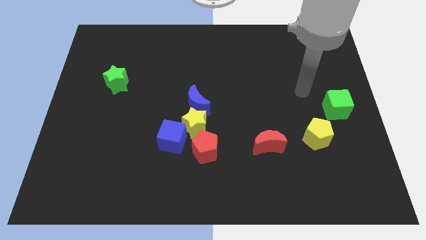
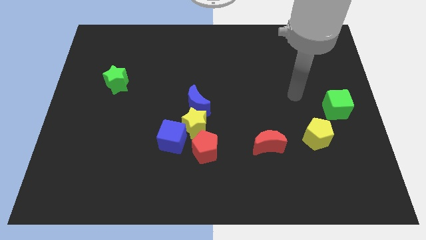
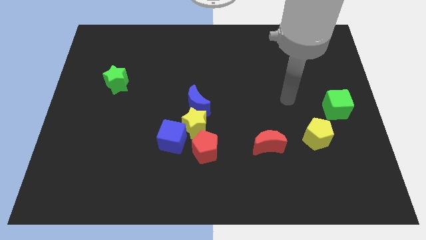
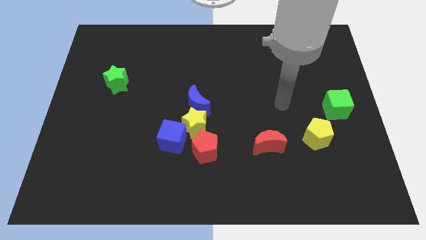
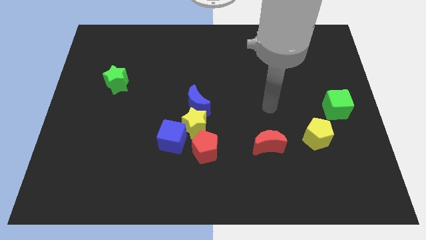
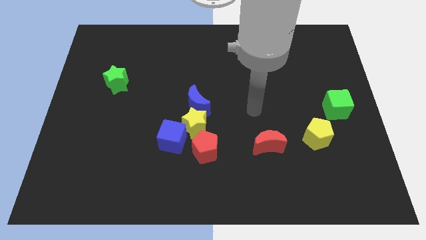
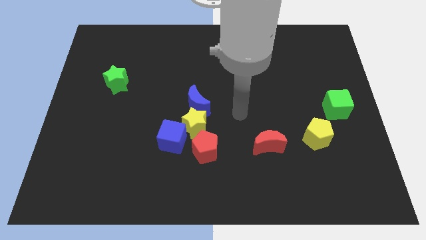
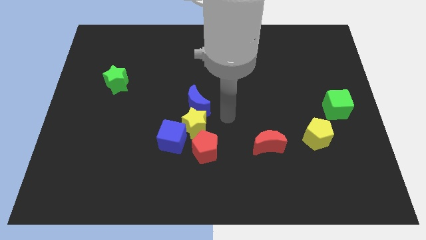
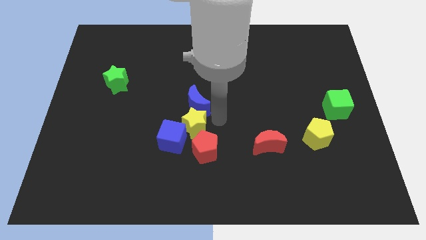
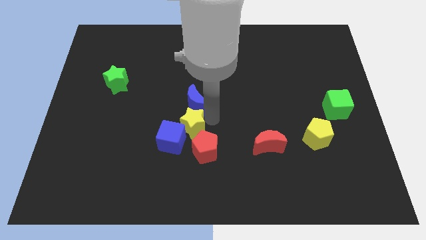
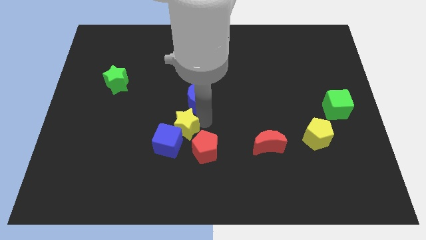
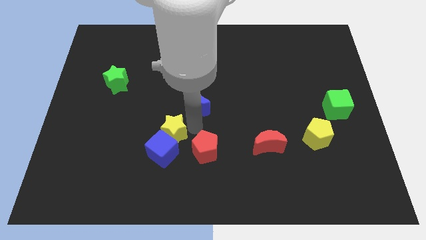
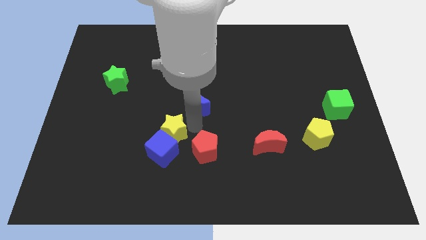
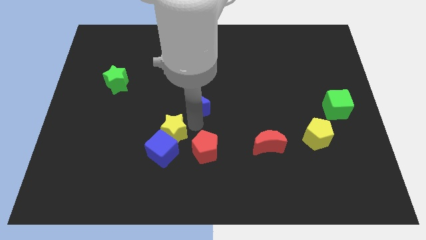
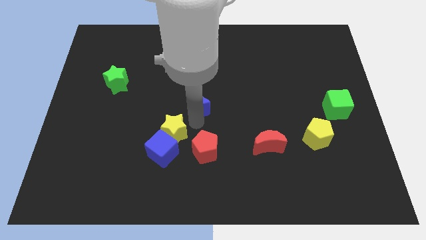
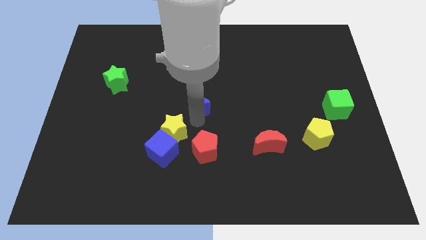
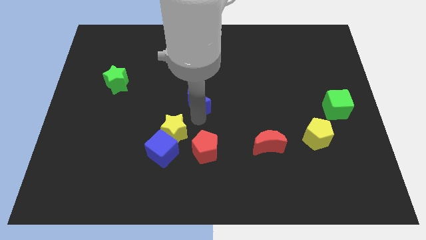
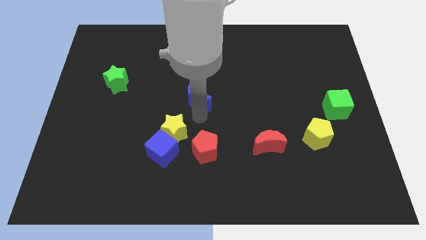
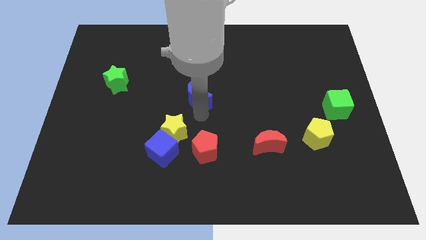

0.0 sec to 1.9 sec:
pull the blue moon apart from the yellow star

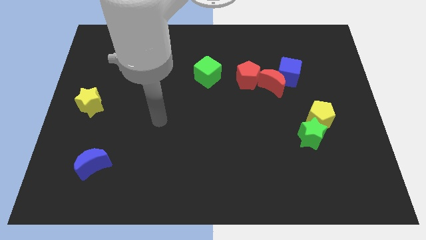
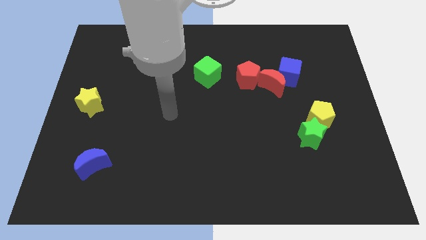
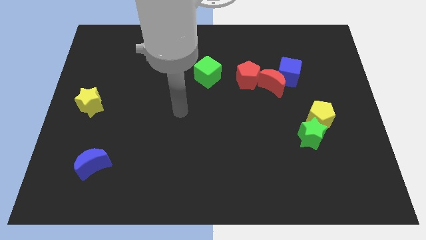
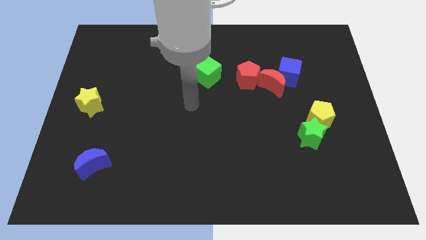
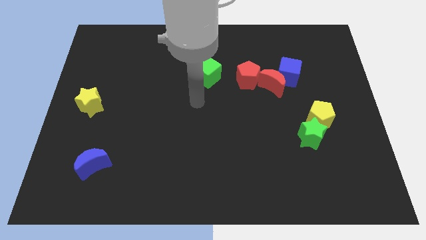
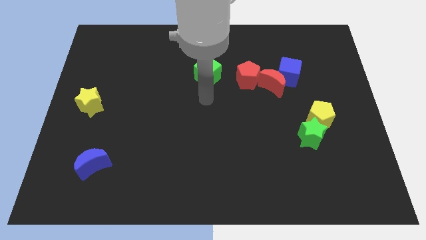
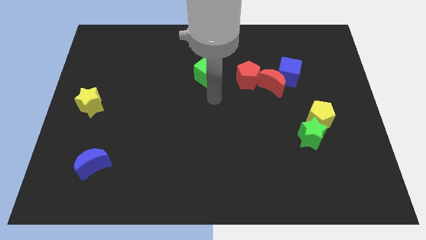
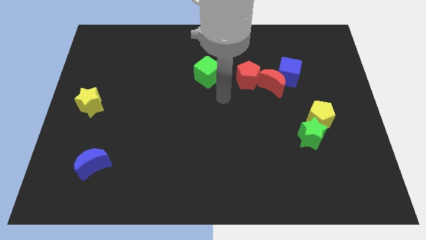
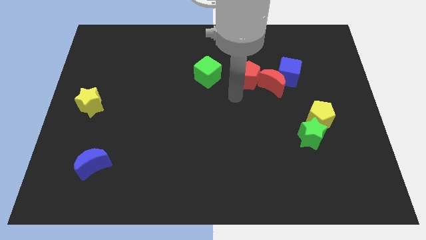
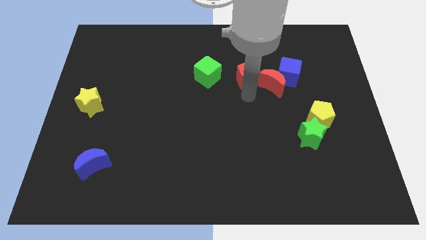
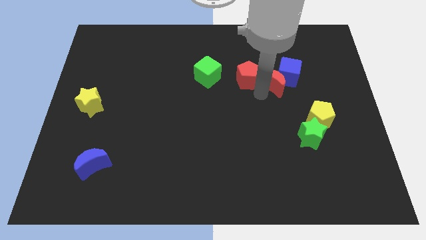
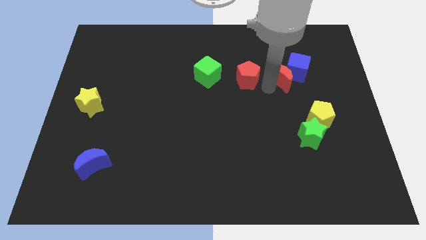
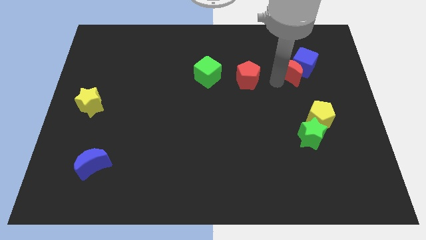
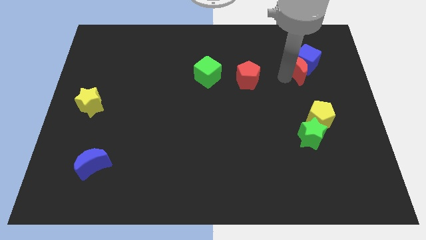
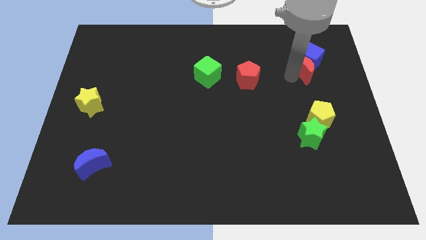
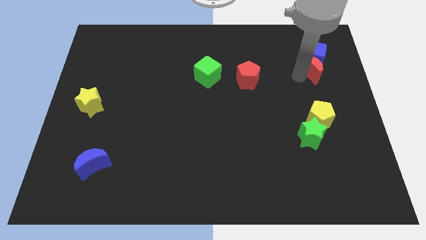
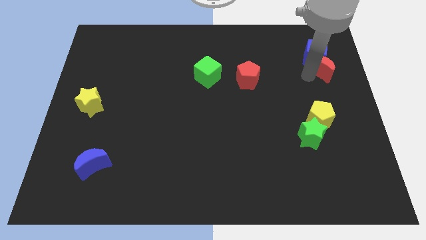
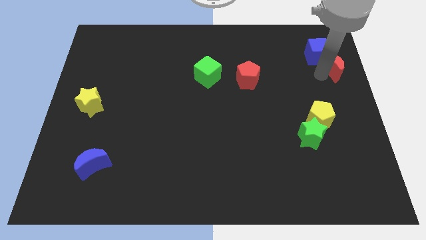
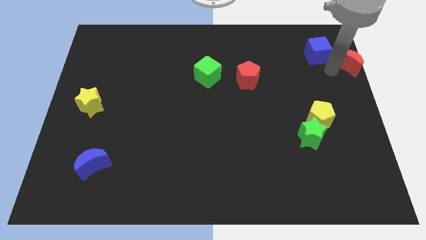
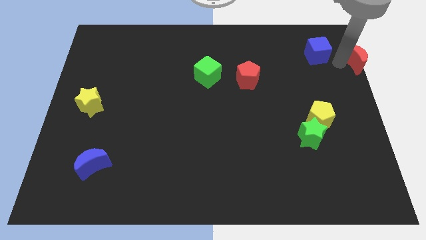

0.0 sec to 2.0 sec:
move the blue cube away from the red moon

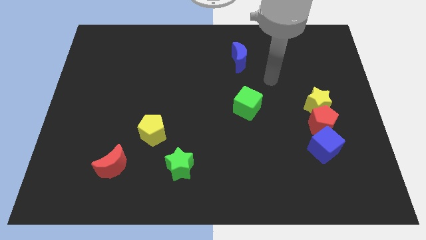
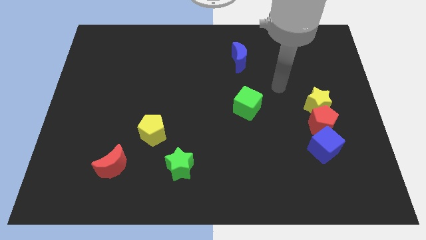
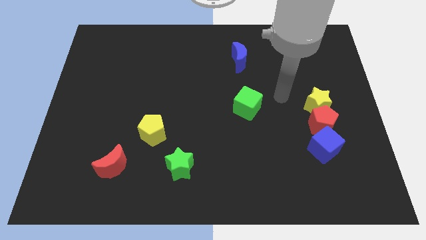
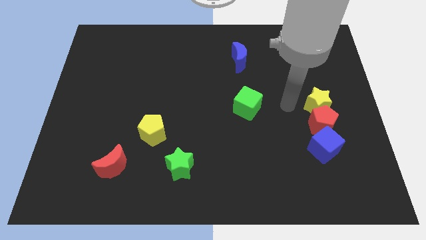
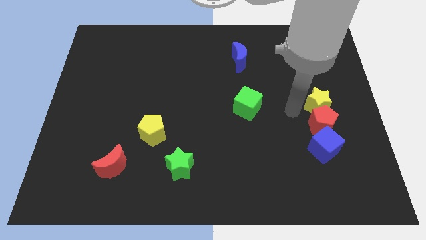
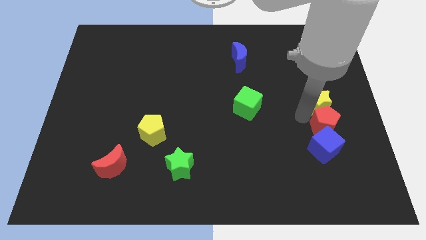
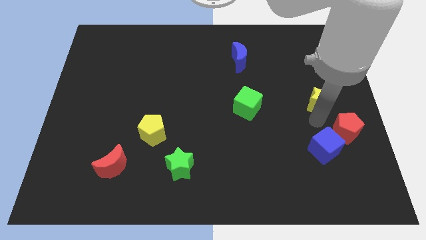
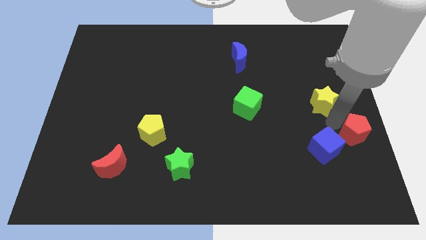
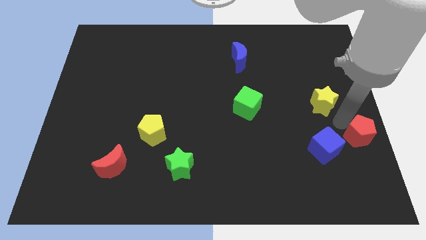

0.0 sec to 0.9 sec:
separate the yellow star from the red pentagon

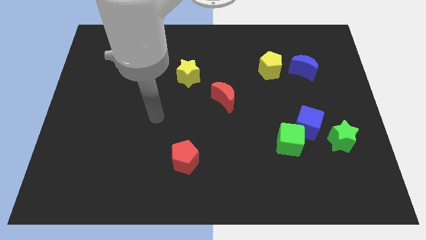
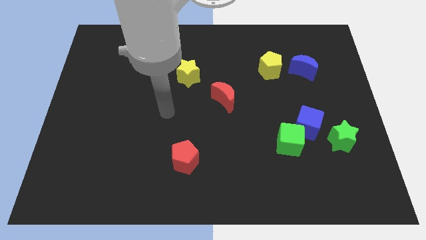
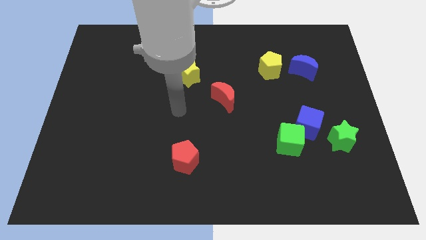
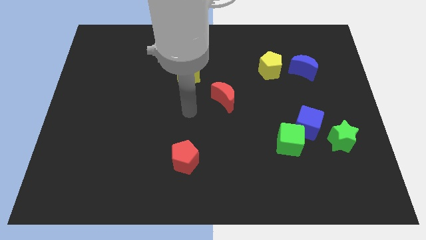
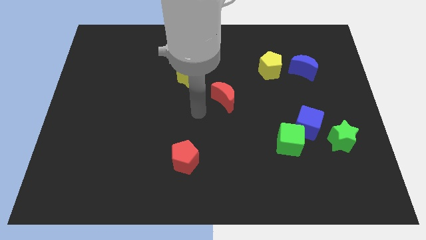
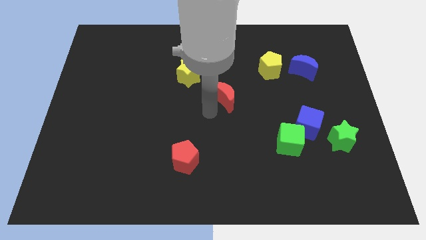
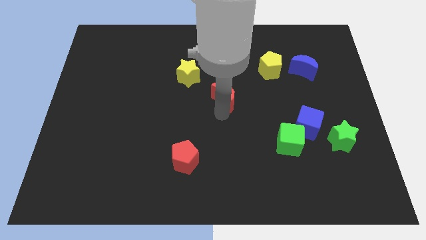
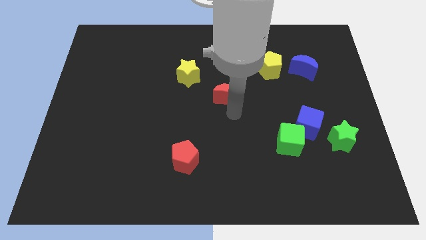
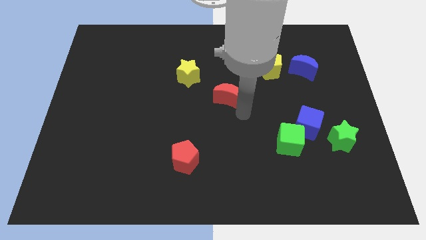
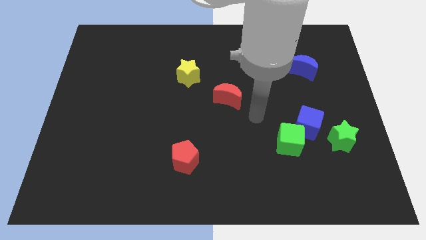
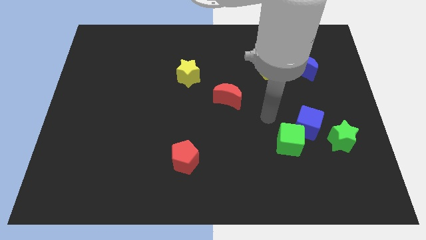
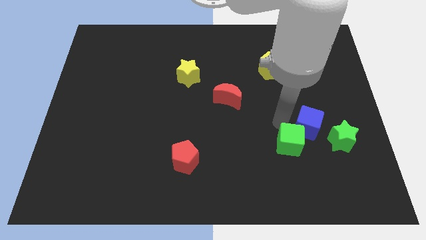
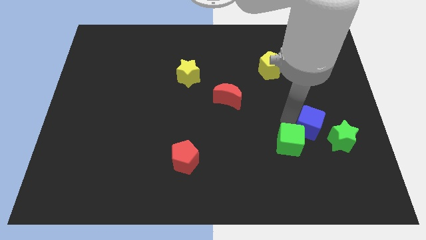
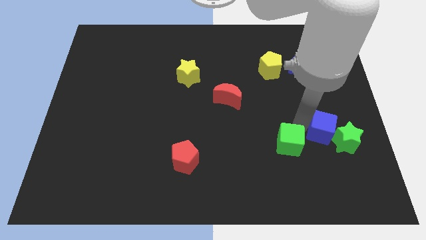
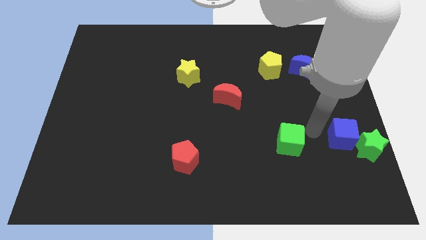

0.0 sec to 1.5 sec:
separate the green cube from the blue cube

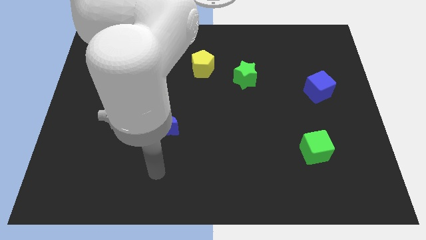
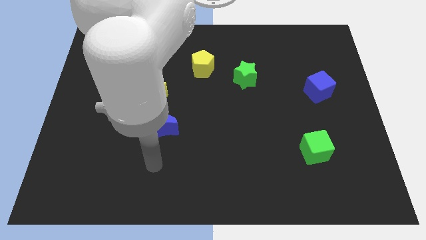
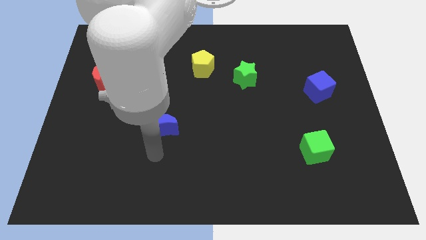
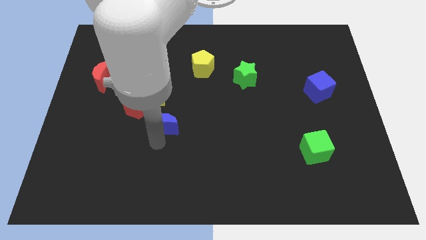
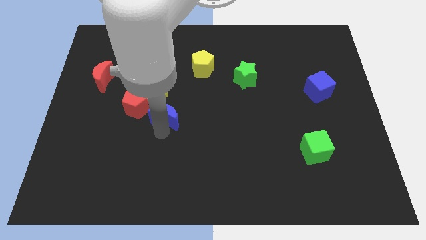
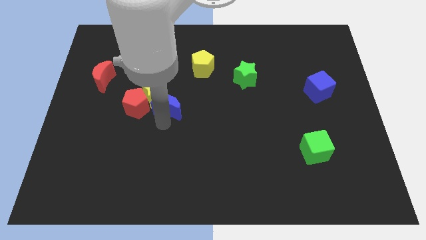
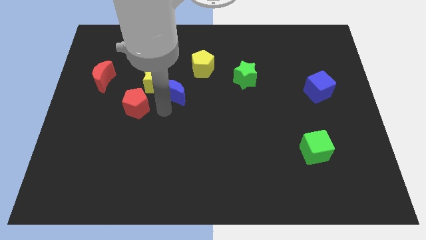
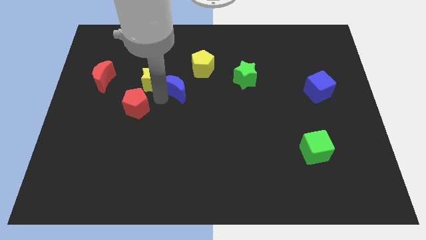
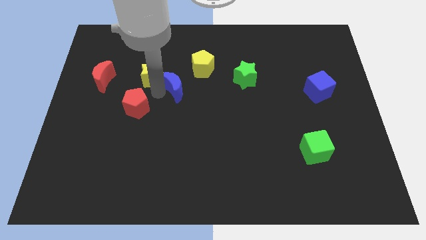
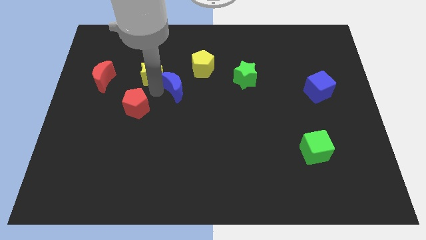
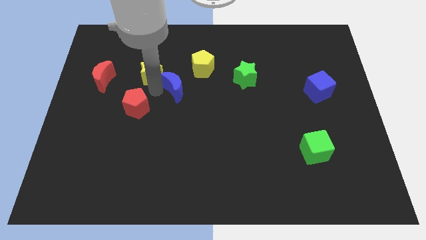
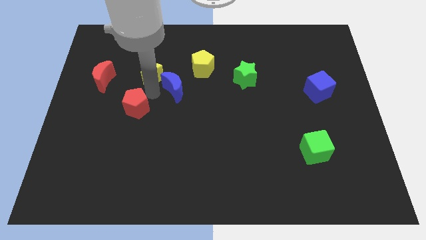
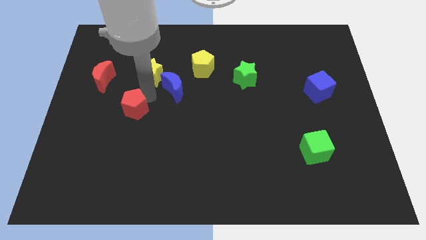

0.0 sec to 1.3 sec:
move the red pentagon away from the yellow star and blue moon

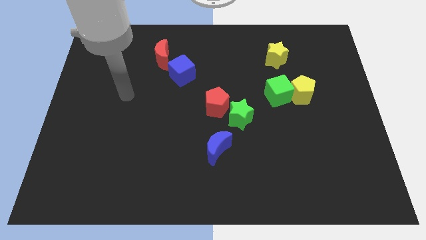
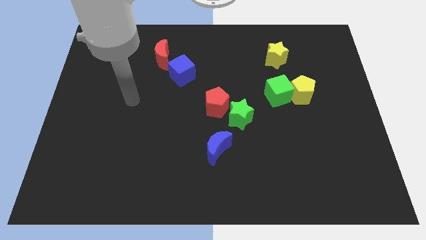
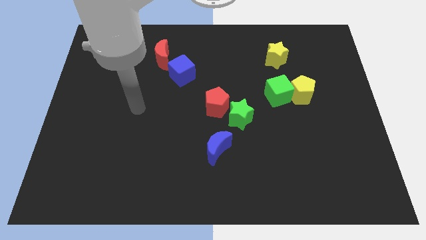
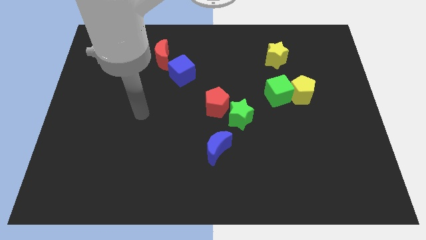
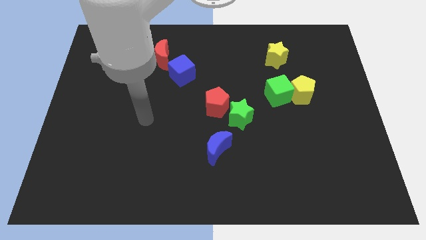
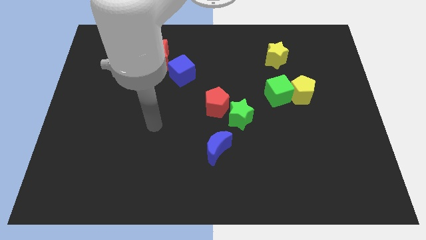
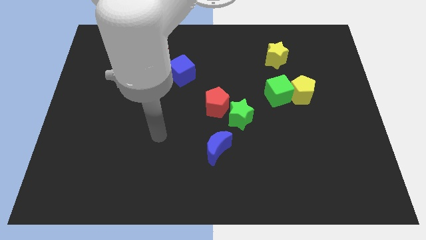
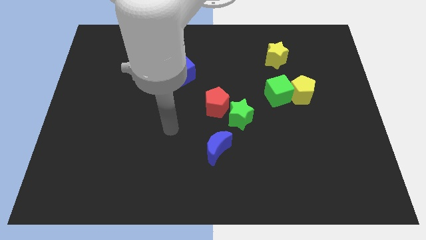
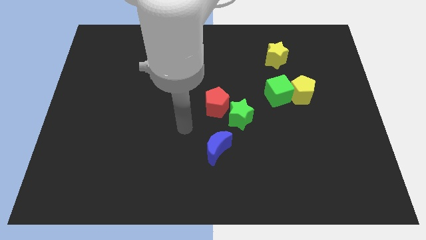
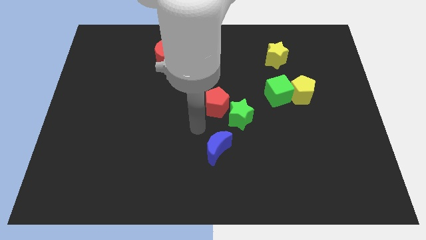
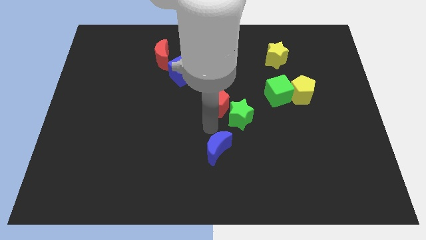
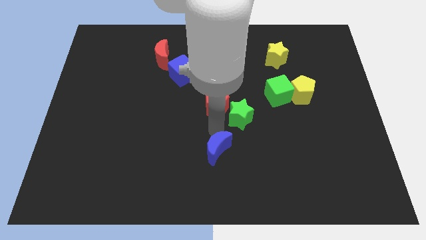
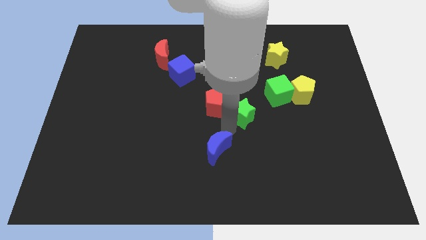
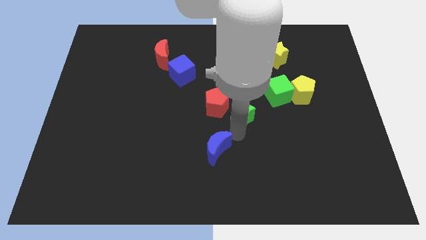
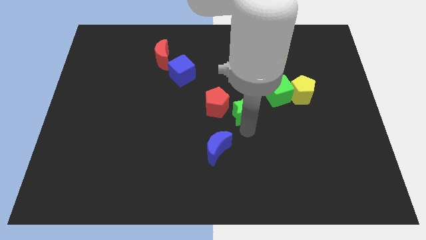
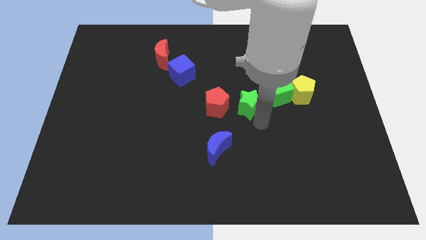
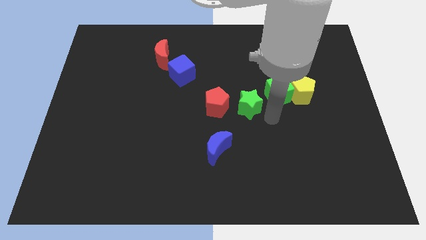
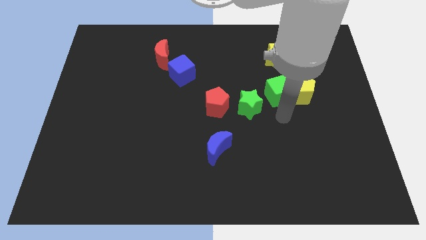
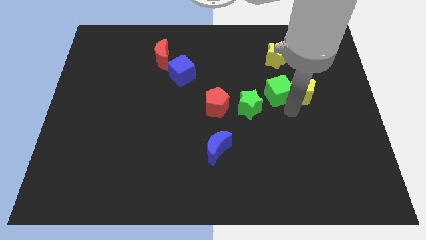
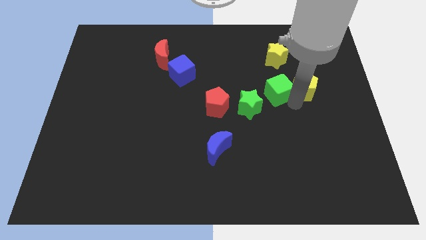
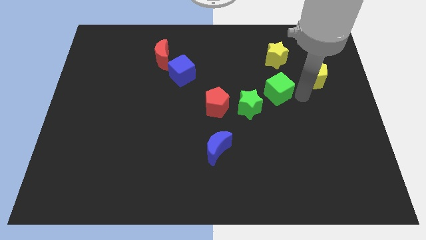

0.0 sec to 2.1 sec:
pull the green cube apart from the yellow pentagon
